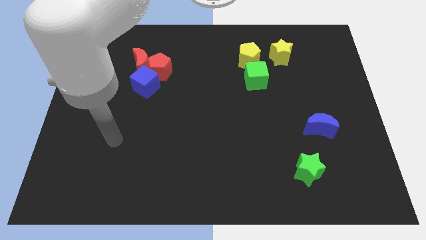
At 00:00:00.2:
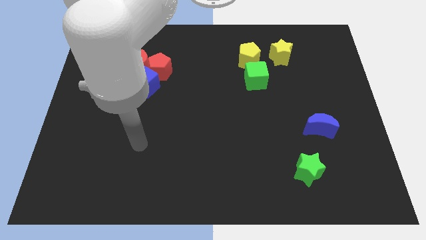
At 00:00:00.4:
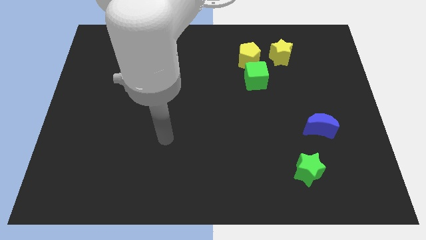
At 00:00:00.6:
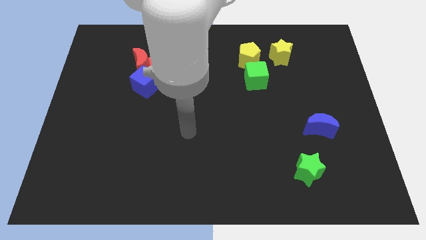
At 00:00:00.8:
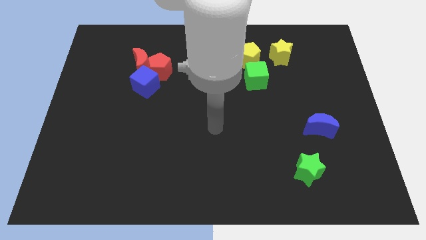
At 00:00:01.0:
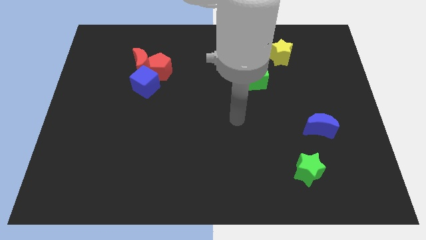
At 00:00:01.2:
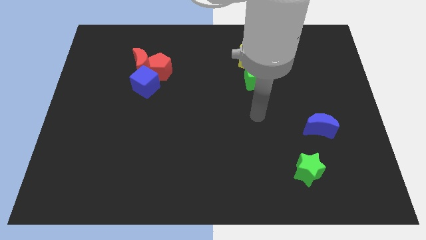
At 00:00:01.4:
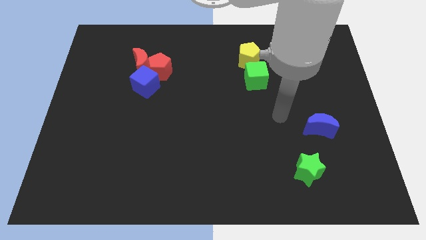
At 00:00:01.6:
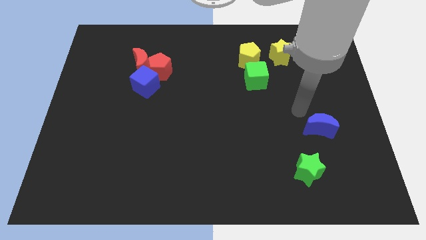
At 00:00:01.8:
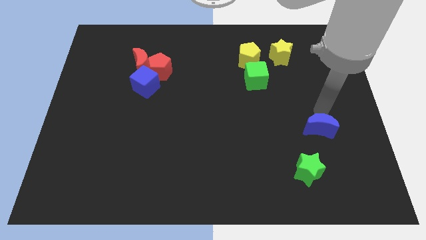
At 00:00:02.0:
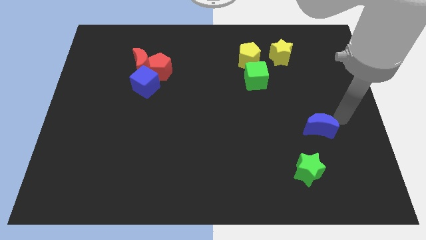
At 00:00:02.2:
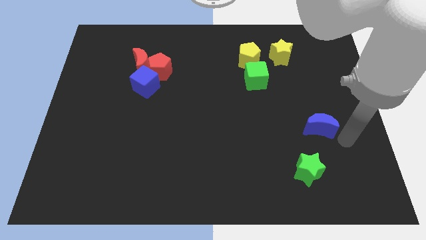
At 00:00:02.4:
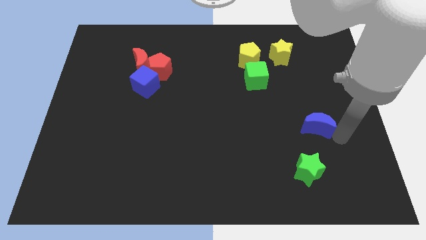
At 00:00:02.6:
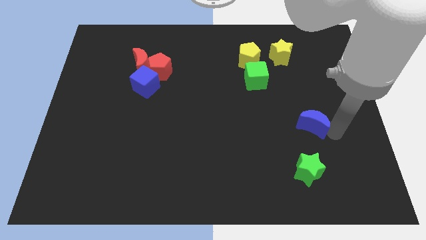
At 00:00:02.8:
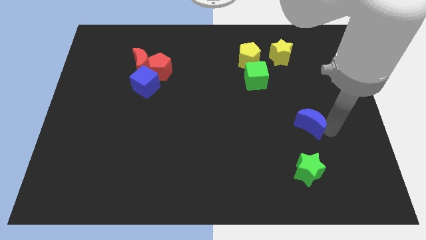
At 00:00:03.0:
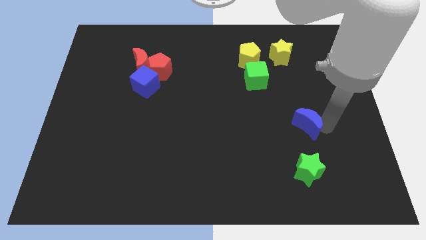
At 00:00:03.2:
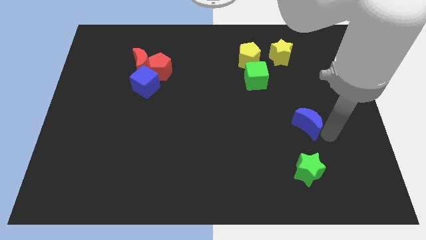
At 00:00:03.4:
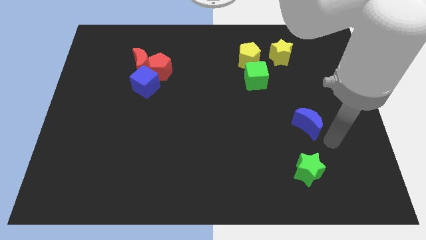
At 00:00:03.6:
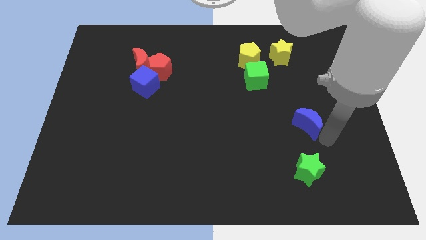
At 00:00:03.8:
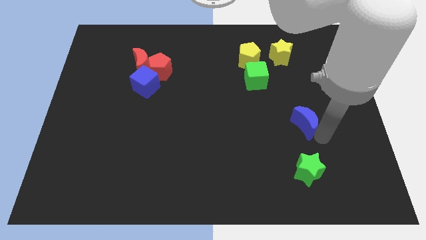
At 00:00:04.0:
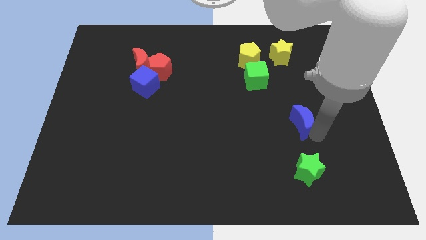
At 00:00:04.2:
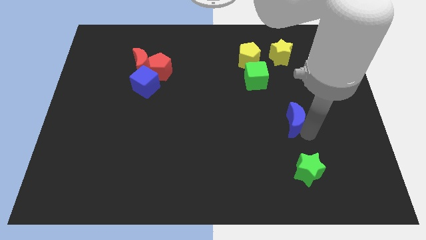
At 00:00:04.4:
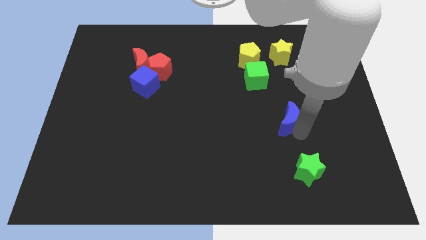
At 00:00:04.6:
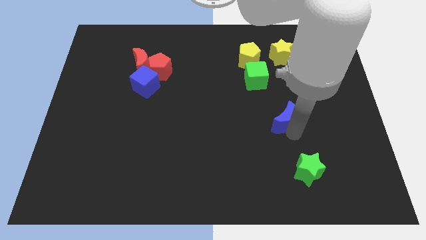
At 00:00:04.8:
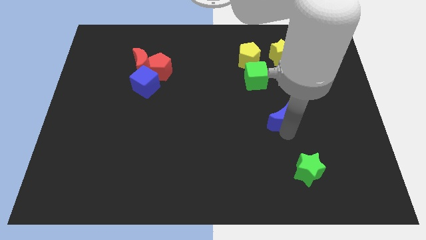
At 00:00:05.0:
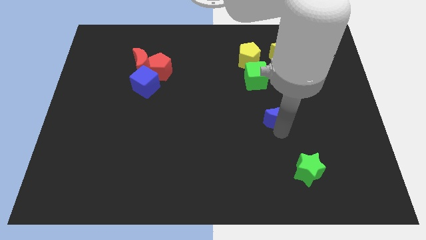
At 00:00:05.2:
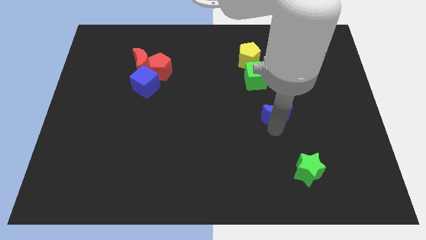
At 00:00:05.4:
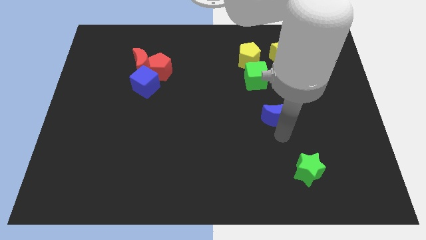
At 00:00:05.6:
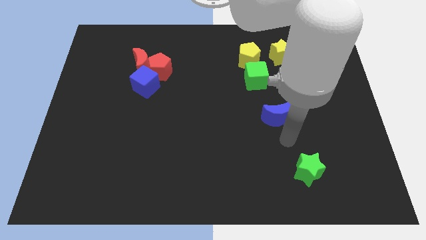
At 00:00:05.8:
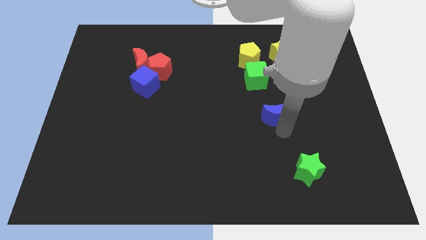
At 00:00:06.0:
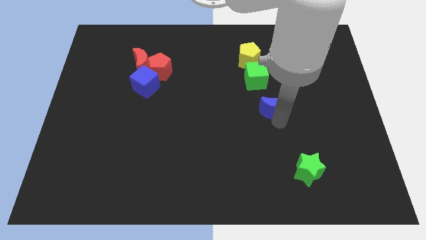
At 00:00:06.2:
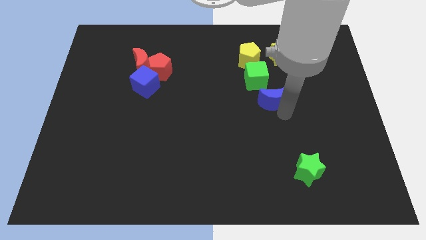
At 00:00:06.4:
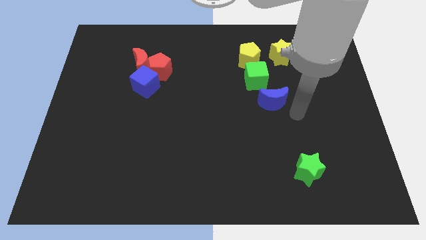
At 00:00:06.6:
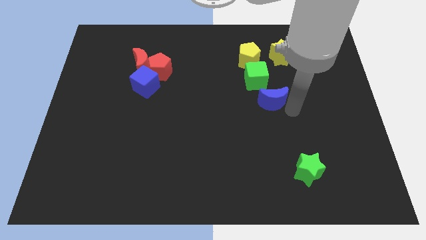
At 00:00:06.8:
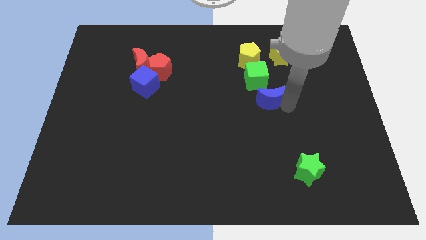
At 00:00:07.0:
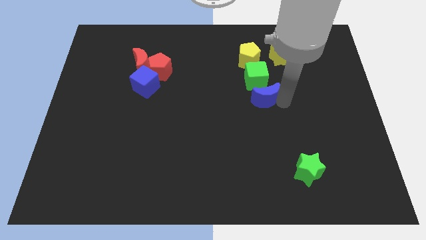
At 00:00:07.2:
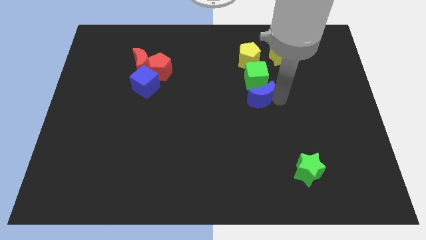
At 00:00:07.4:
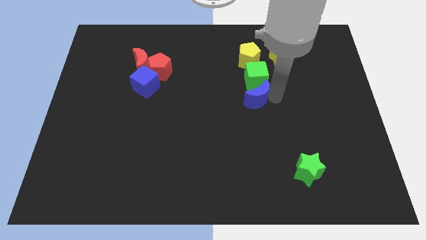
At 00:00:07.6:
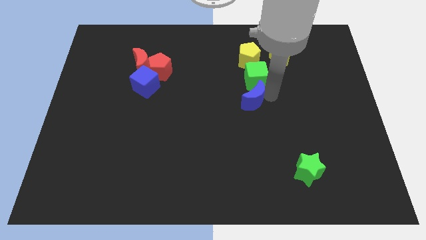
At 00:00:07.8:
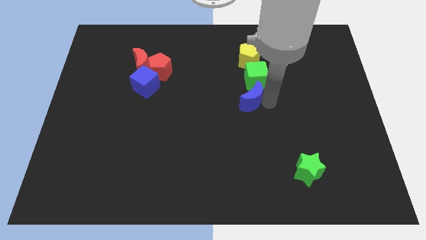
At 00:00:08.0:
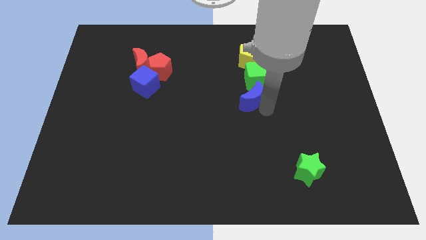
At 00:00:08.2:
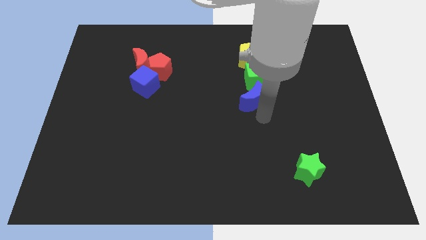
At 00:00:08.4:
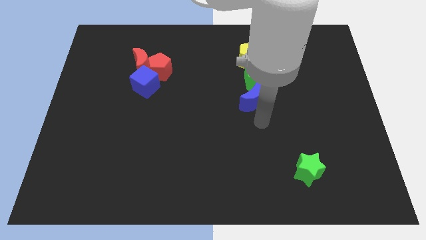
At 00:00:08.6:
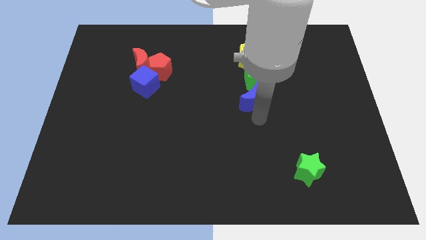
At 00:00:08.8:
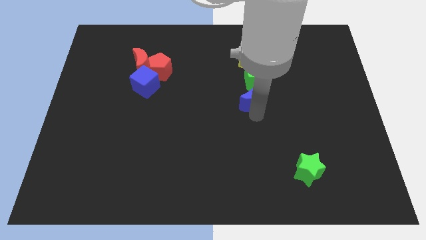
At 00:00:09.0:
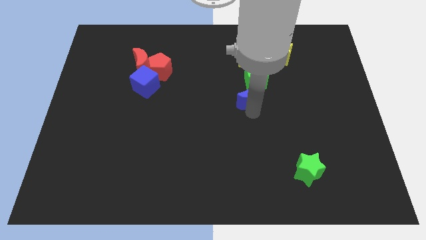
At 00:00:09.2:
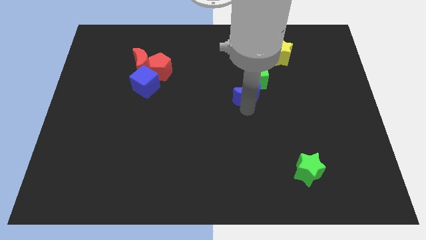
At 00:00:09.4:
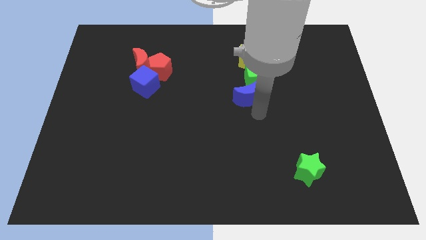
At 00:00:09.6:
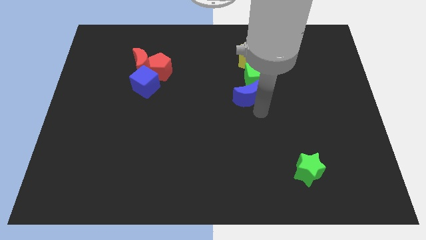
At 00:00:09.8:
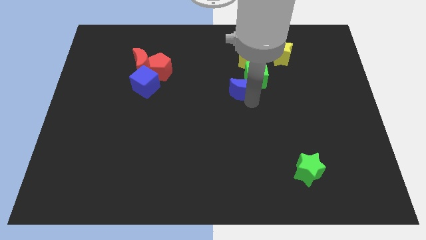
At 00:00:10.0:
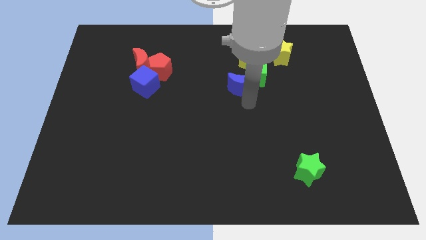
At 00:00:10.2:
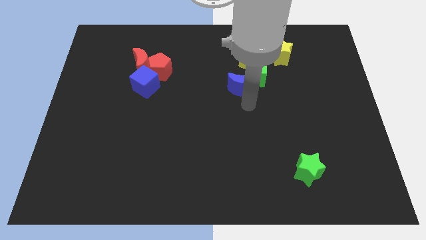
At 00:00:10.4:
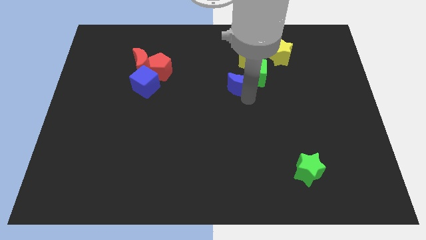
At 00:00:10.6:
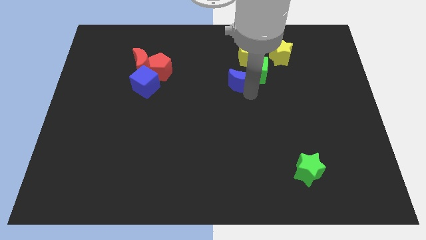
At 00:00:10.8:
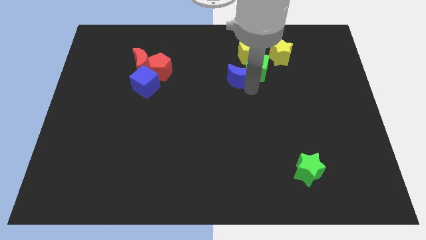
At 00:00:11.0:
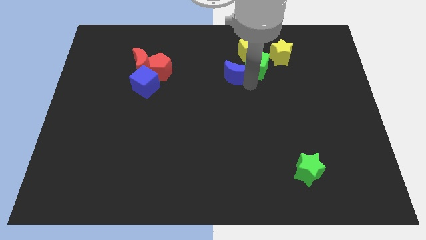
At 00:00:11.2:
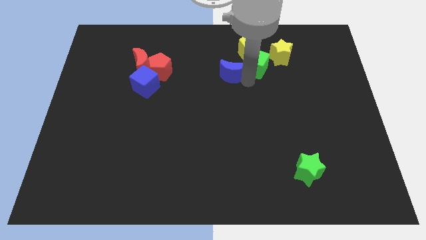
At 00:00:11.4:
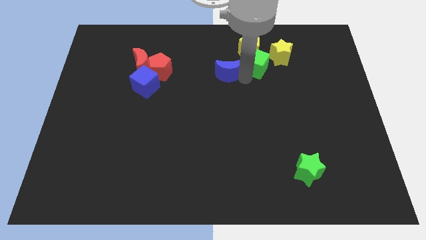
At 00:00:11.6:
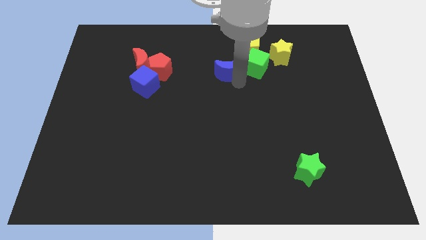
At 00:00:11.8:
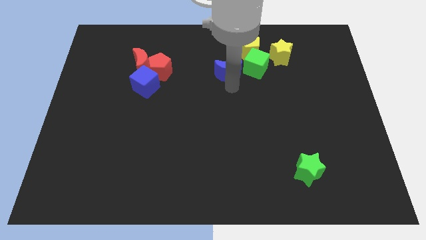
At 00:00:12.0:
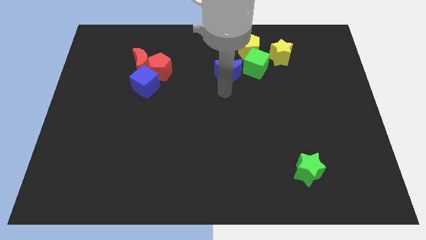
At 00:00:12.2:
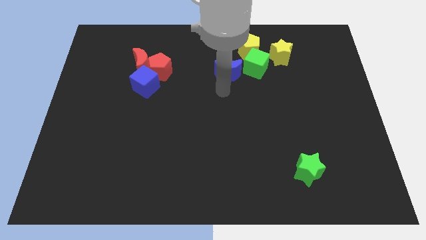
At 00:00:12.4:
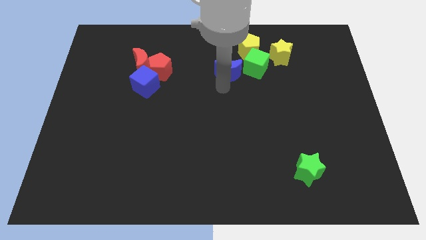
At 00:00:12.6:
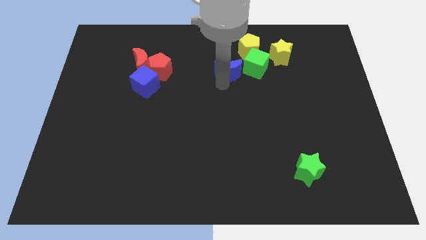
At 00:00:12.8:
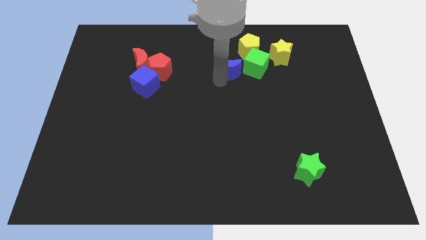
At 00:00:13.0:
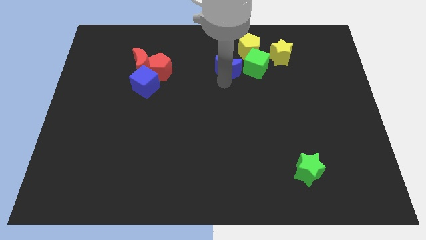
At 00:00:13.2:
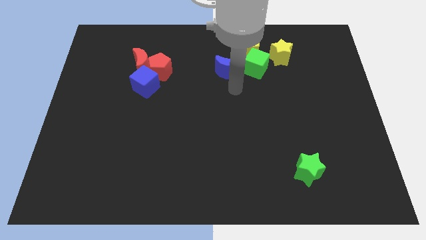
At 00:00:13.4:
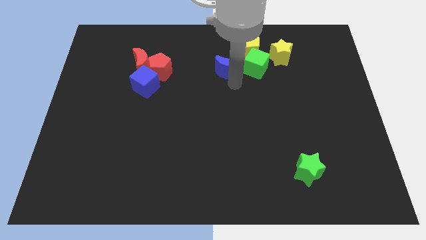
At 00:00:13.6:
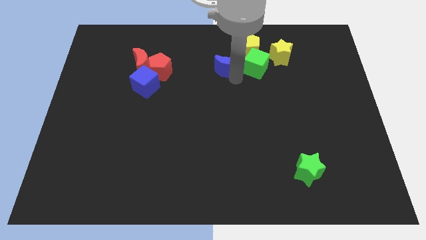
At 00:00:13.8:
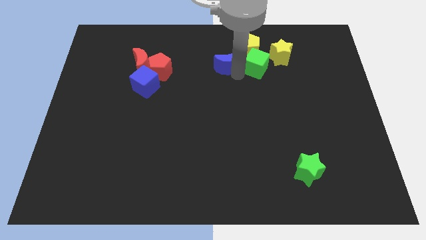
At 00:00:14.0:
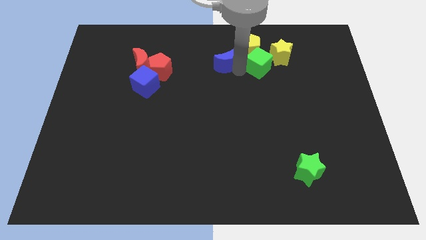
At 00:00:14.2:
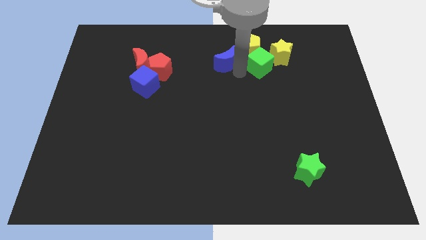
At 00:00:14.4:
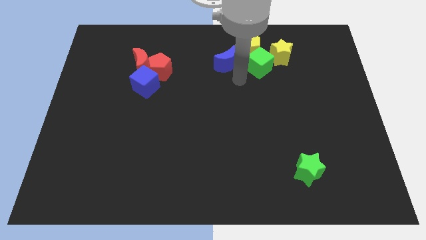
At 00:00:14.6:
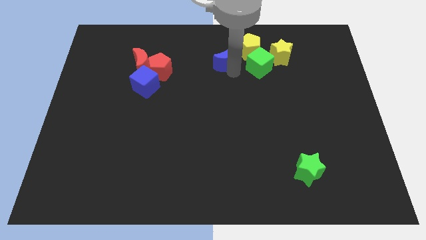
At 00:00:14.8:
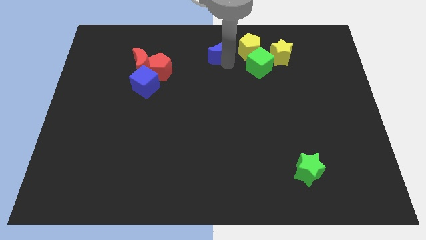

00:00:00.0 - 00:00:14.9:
put the blue moon to the top
